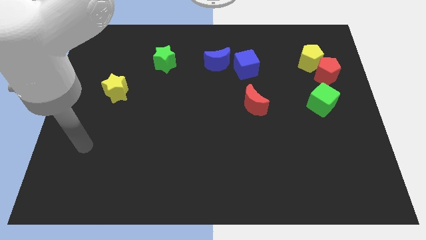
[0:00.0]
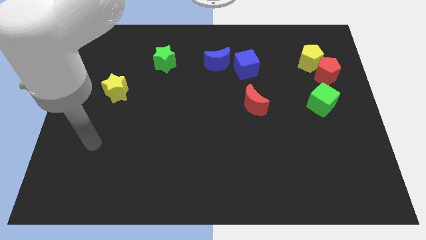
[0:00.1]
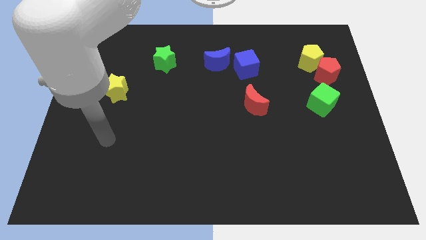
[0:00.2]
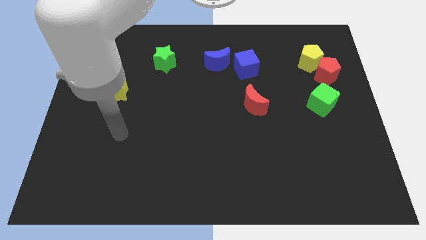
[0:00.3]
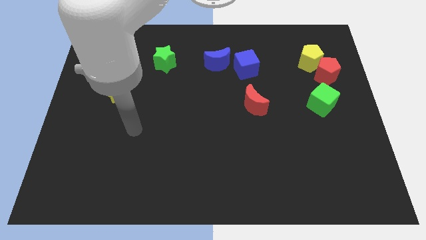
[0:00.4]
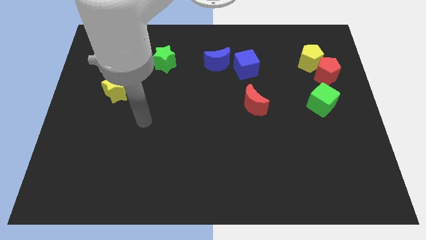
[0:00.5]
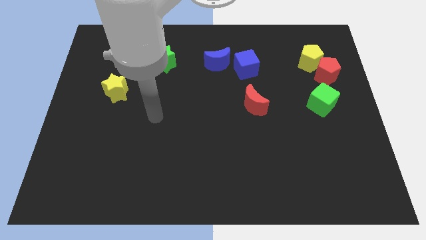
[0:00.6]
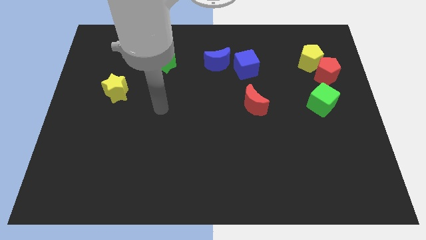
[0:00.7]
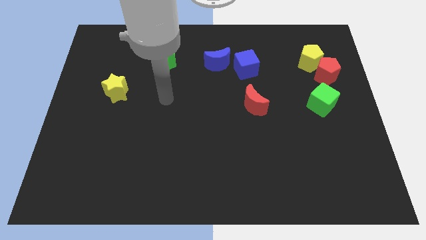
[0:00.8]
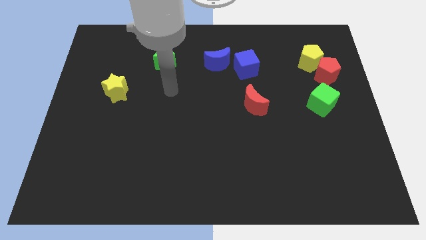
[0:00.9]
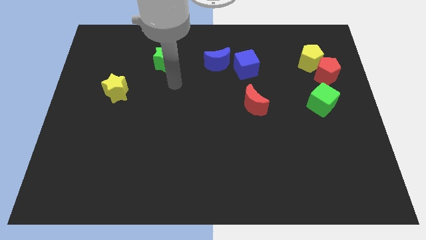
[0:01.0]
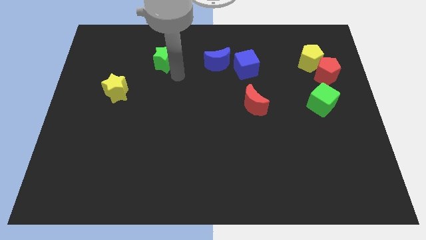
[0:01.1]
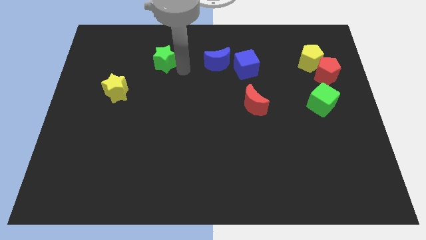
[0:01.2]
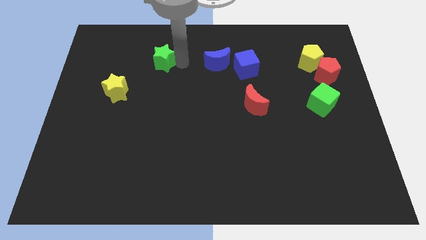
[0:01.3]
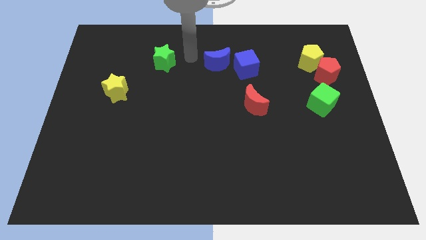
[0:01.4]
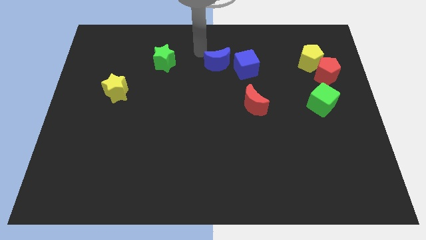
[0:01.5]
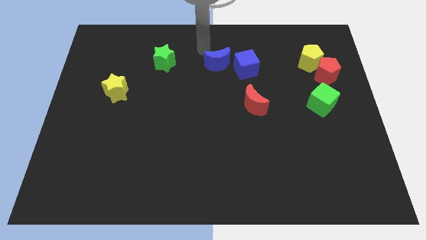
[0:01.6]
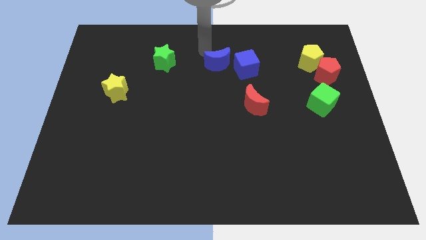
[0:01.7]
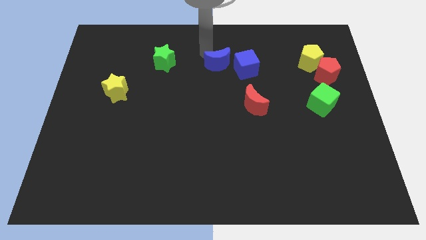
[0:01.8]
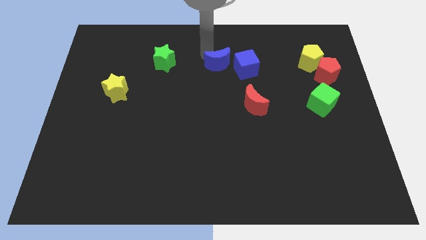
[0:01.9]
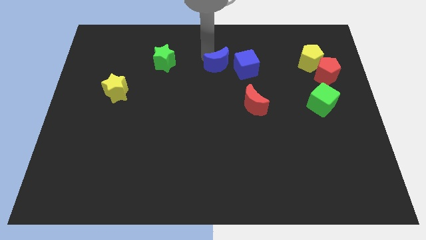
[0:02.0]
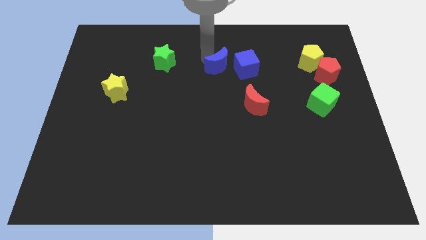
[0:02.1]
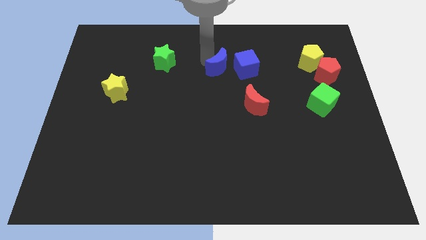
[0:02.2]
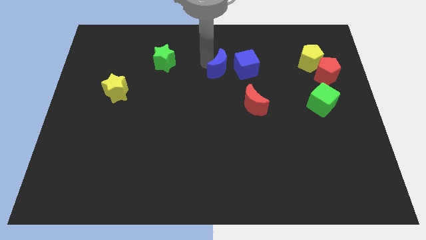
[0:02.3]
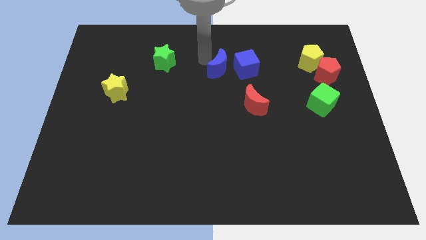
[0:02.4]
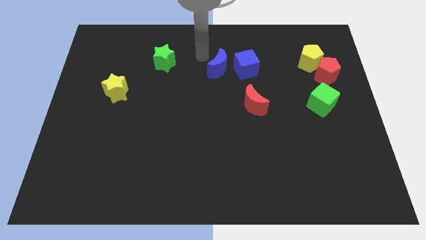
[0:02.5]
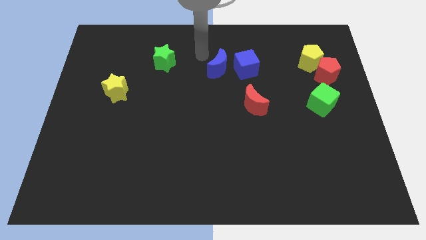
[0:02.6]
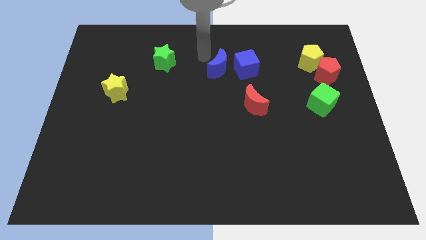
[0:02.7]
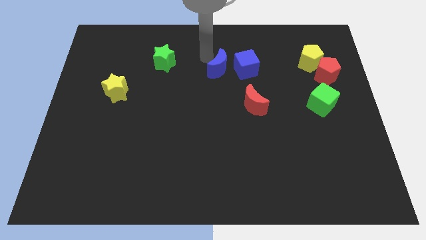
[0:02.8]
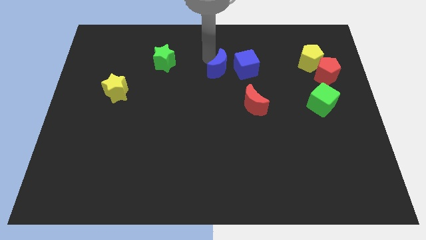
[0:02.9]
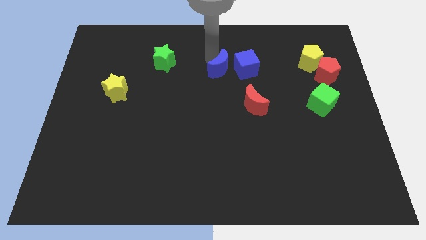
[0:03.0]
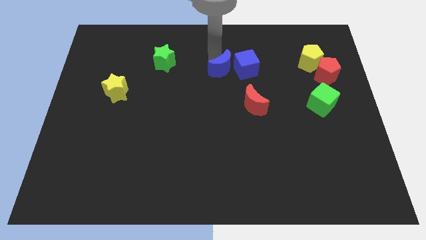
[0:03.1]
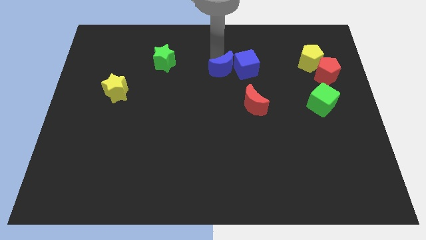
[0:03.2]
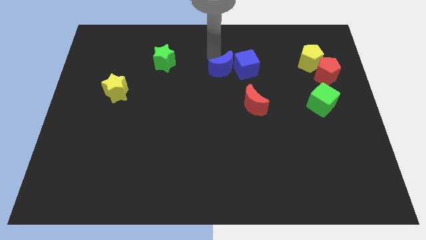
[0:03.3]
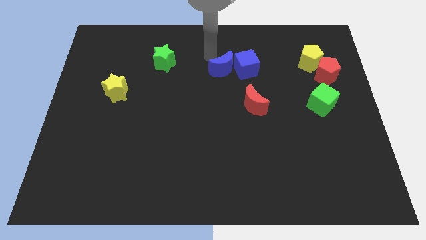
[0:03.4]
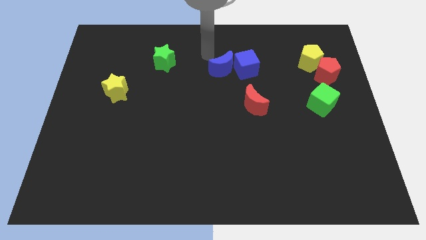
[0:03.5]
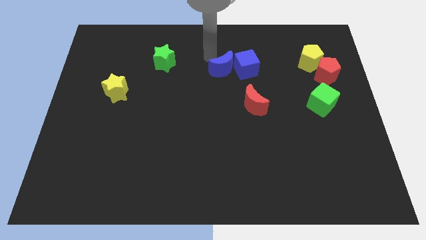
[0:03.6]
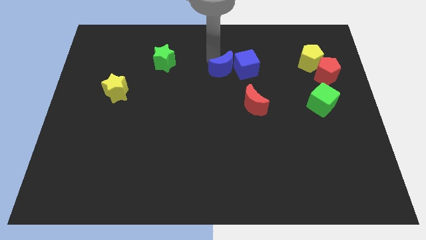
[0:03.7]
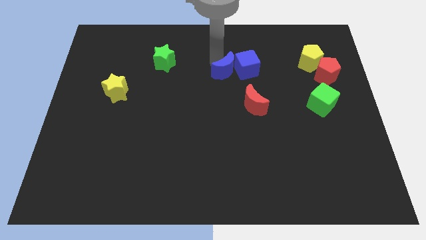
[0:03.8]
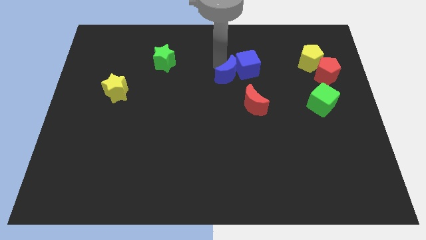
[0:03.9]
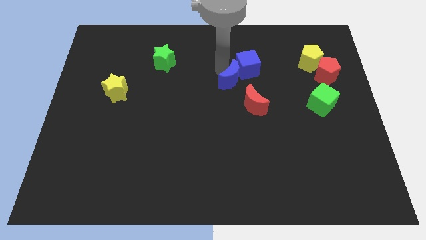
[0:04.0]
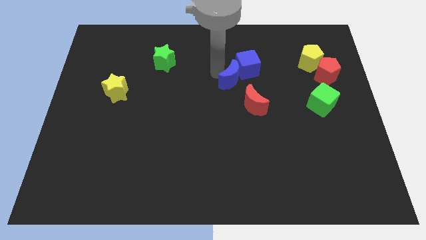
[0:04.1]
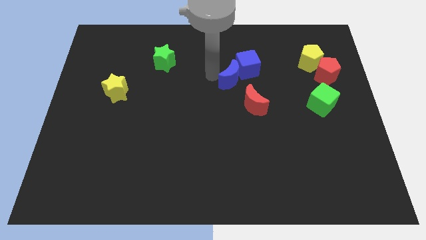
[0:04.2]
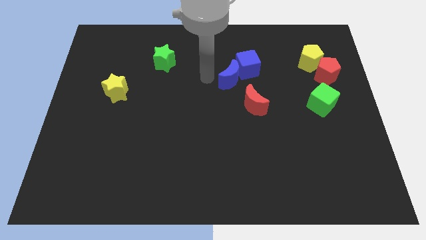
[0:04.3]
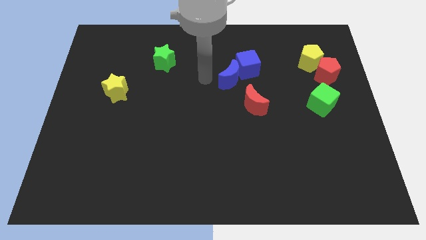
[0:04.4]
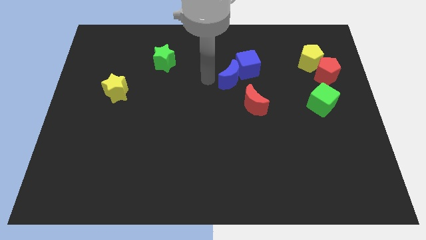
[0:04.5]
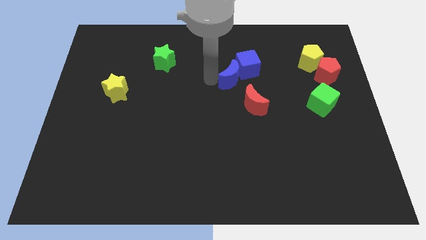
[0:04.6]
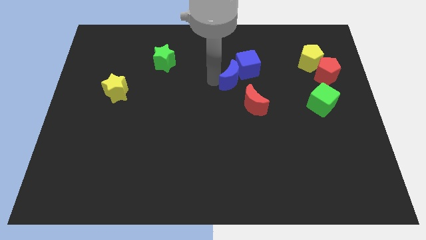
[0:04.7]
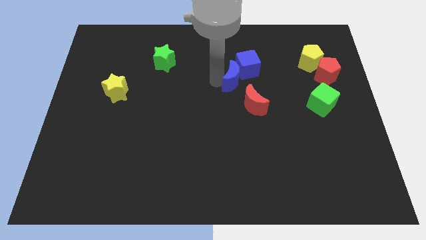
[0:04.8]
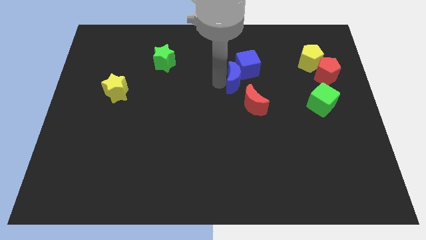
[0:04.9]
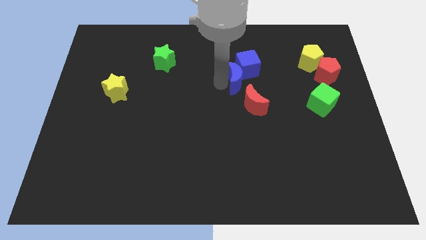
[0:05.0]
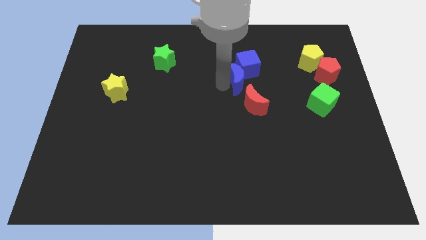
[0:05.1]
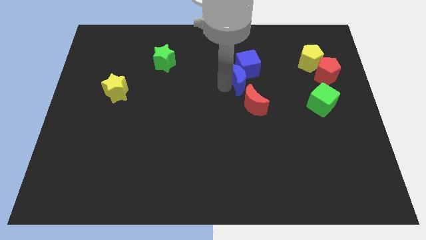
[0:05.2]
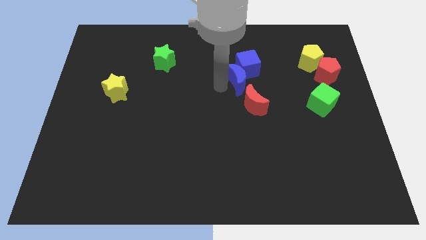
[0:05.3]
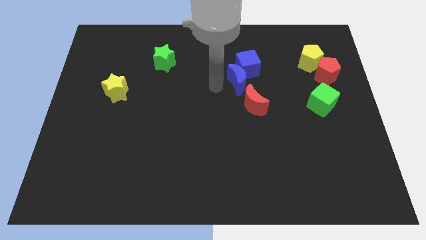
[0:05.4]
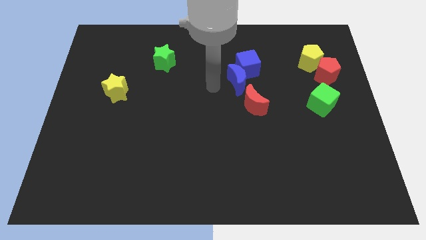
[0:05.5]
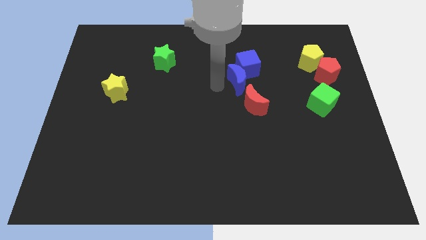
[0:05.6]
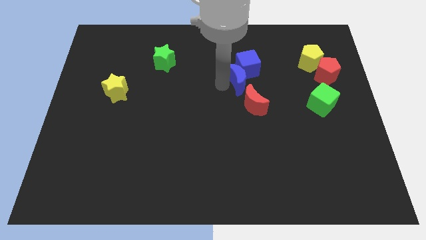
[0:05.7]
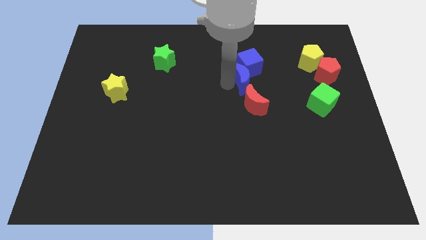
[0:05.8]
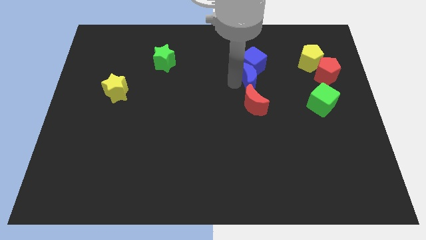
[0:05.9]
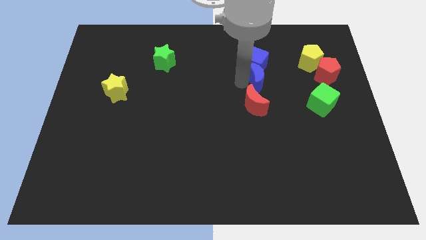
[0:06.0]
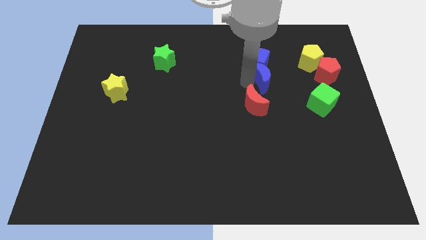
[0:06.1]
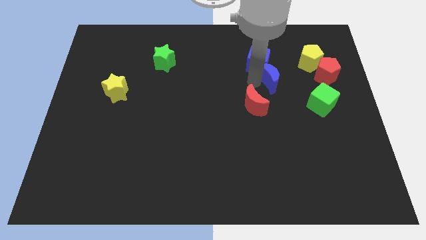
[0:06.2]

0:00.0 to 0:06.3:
push the blue moon to the left side of the red pentagon

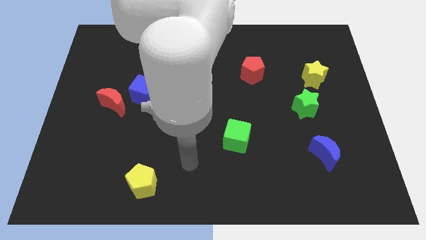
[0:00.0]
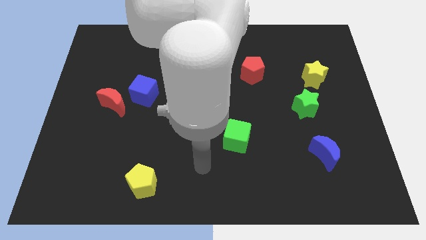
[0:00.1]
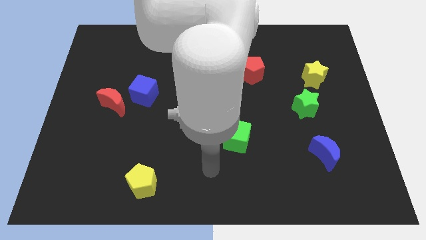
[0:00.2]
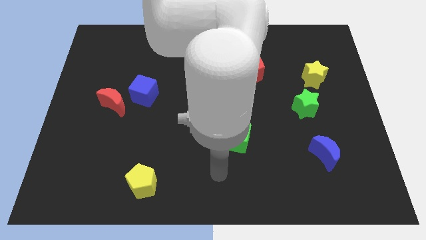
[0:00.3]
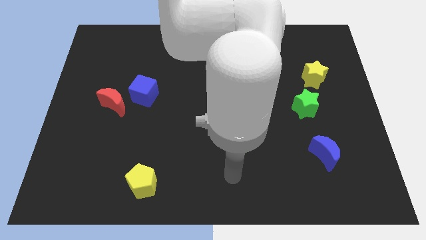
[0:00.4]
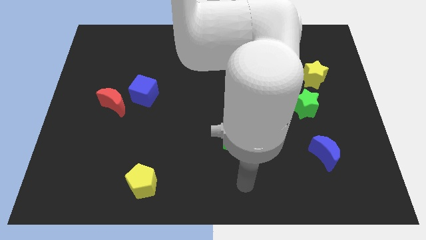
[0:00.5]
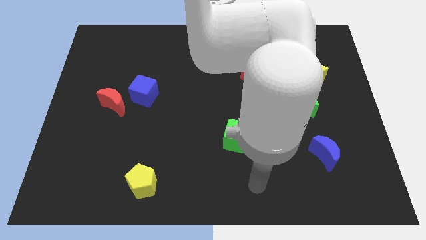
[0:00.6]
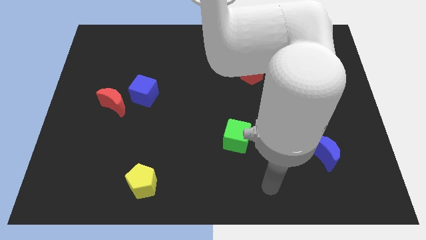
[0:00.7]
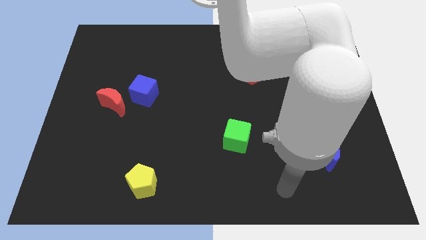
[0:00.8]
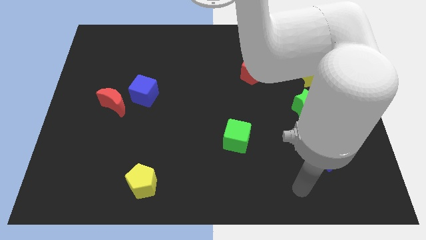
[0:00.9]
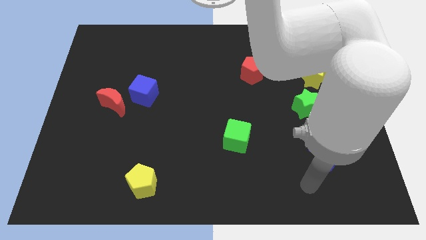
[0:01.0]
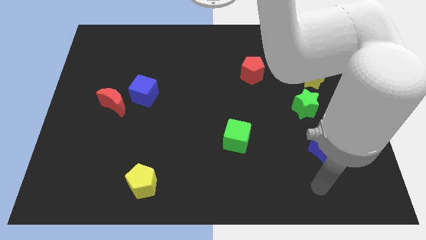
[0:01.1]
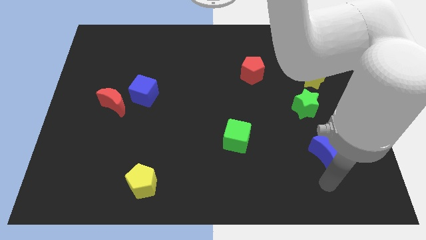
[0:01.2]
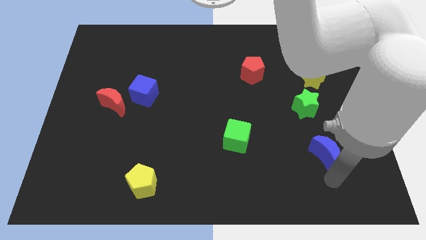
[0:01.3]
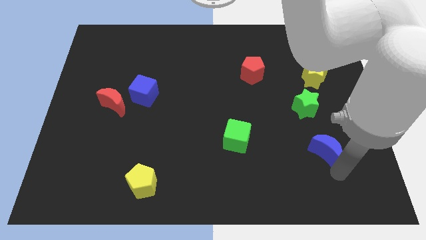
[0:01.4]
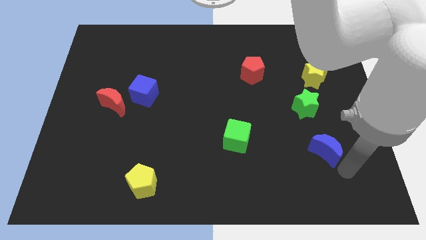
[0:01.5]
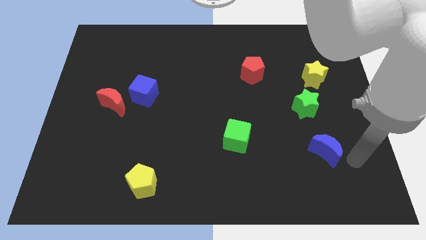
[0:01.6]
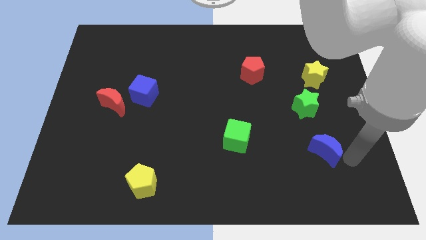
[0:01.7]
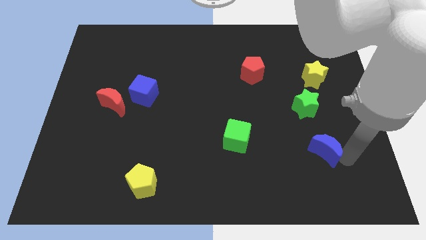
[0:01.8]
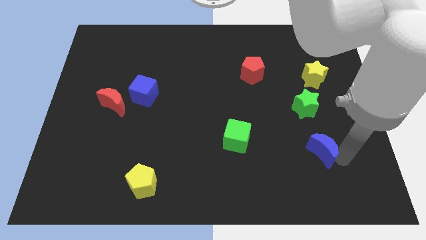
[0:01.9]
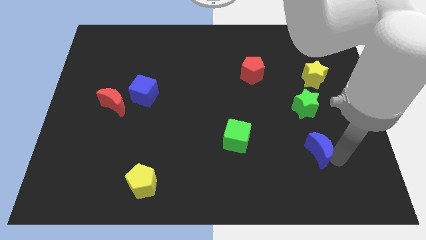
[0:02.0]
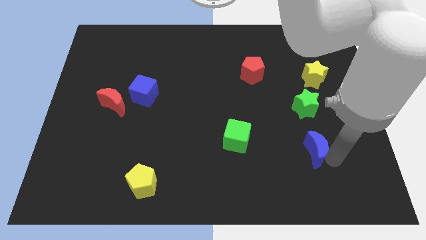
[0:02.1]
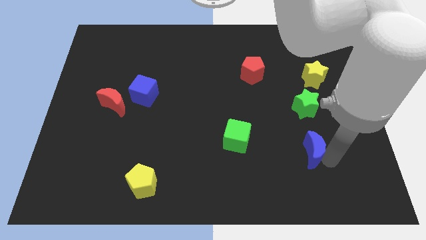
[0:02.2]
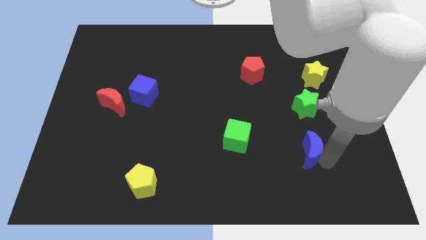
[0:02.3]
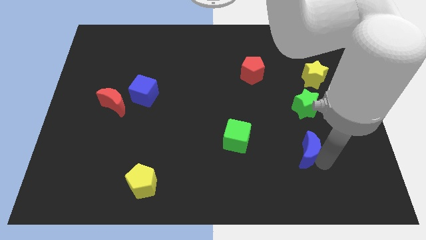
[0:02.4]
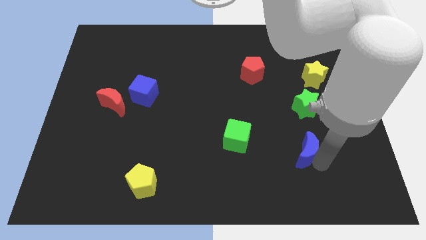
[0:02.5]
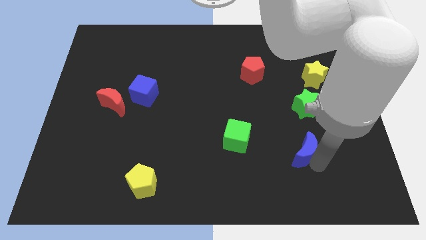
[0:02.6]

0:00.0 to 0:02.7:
slide the blue moon just right of the green cube
